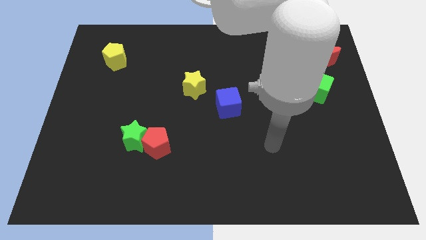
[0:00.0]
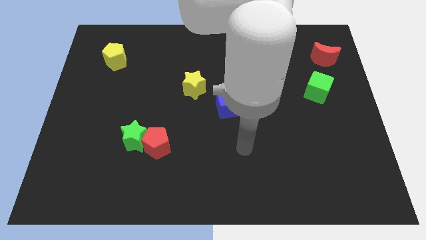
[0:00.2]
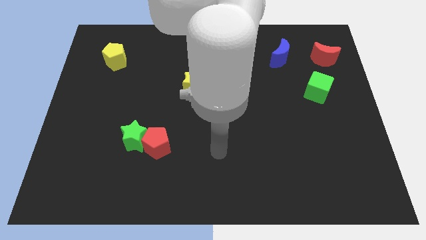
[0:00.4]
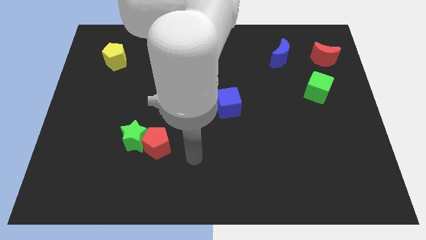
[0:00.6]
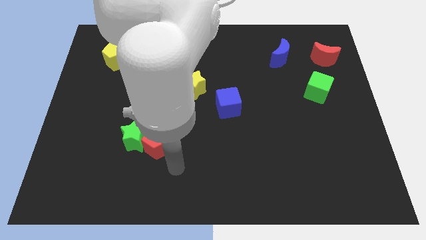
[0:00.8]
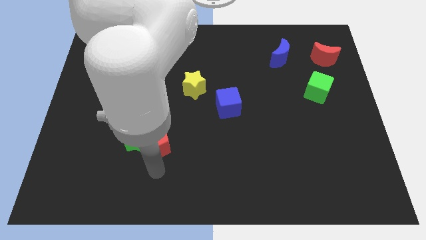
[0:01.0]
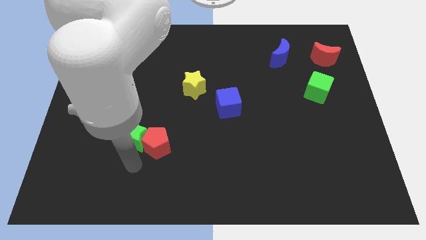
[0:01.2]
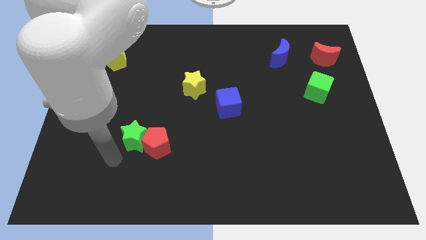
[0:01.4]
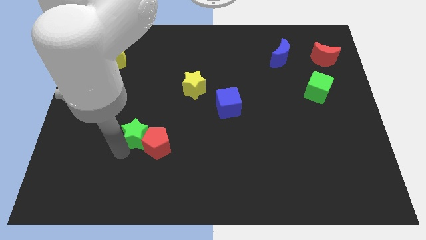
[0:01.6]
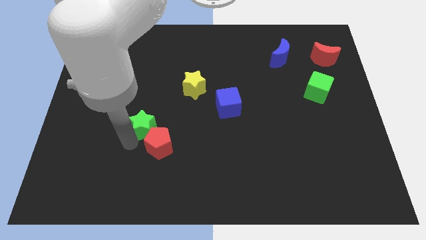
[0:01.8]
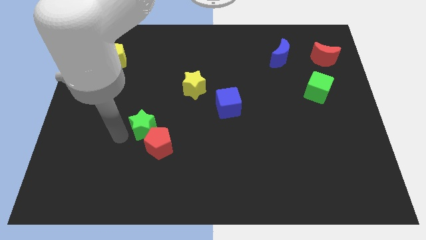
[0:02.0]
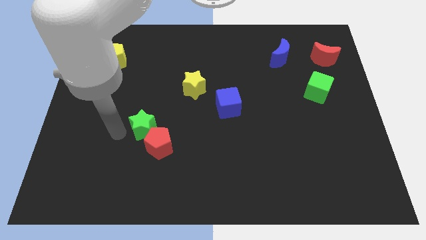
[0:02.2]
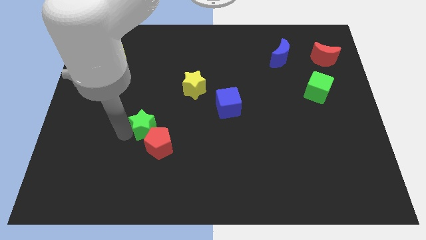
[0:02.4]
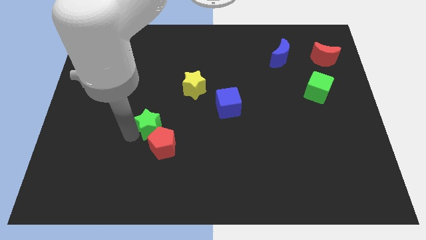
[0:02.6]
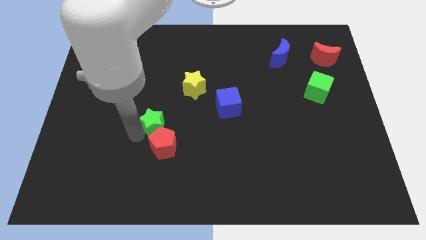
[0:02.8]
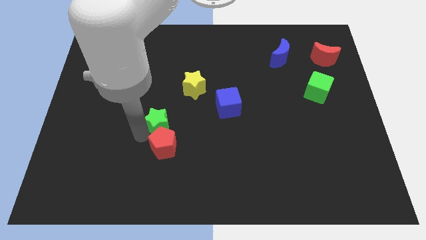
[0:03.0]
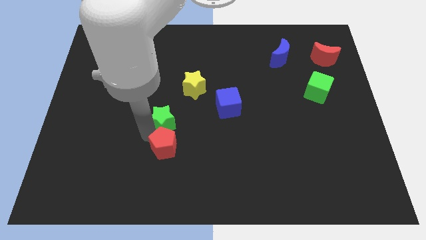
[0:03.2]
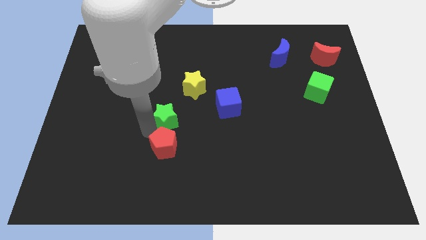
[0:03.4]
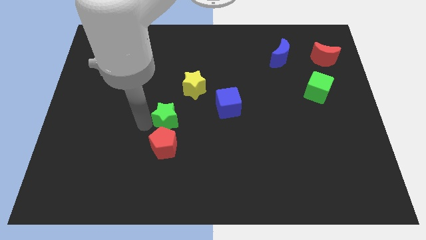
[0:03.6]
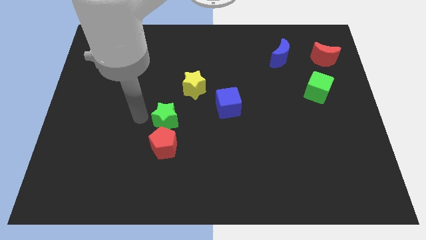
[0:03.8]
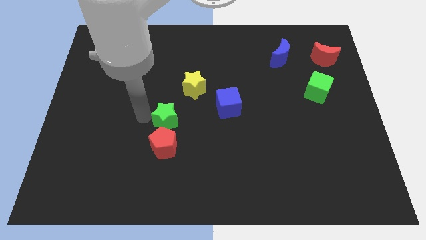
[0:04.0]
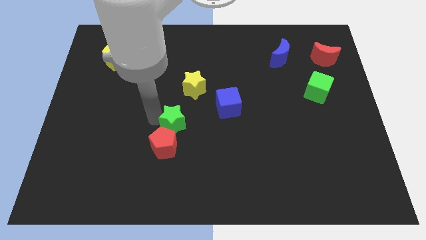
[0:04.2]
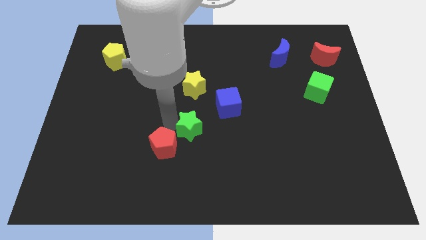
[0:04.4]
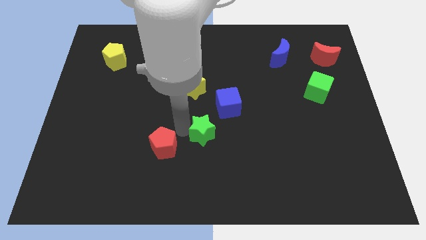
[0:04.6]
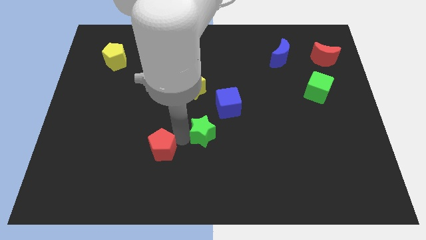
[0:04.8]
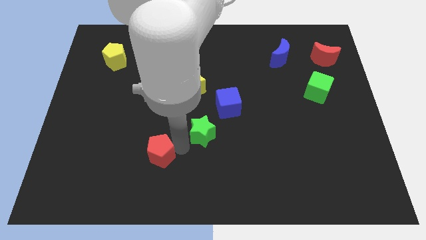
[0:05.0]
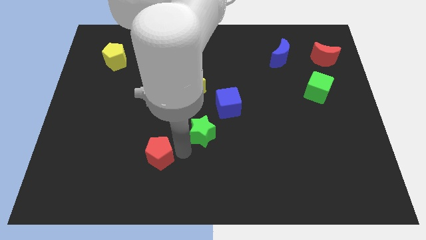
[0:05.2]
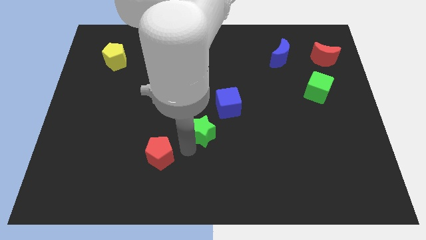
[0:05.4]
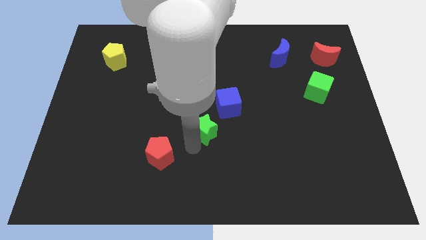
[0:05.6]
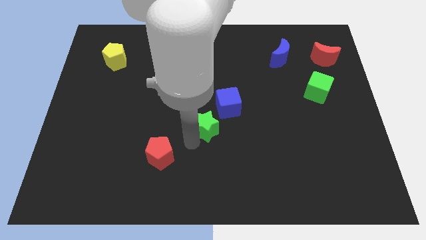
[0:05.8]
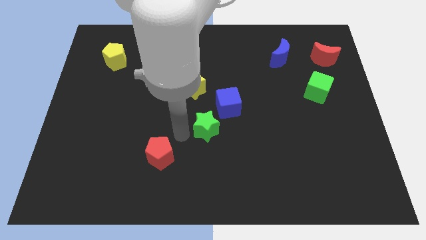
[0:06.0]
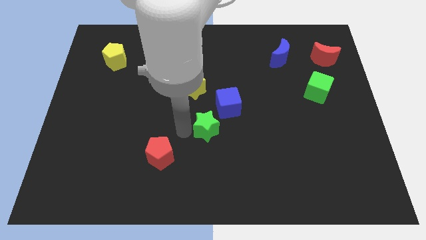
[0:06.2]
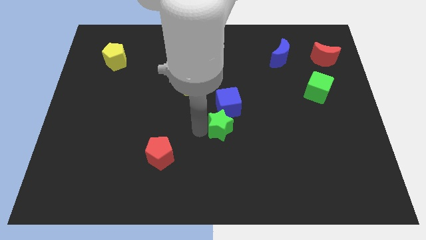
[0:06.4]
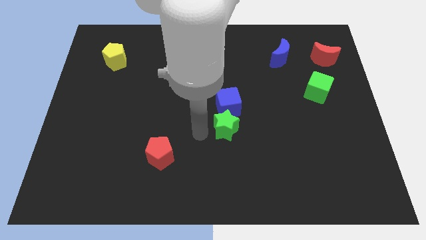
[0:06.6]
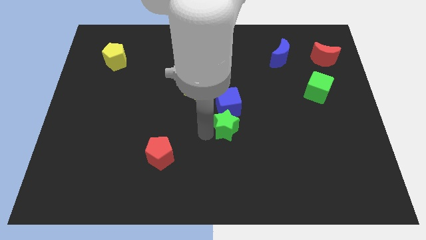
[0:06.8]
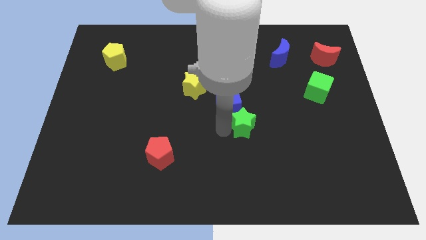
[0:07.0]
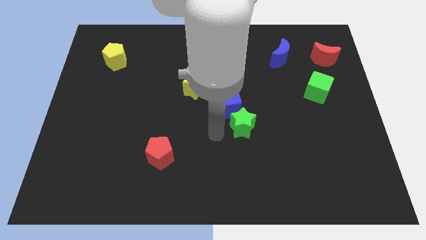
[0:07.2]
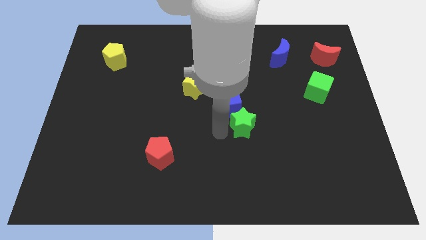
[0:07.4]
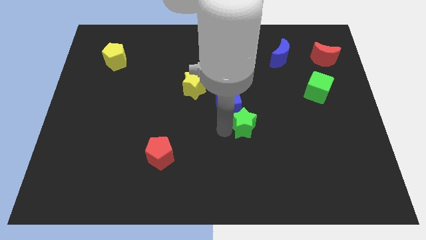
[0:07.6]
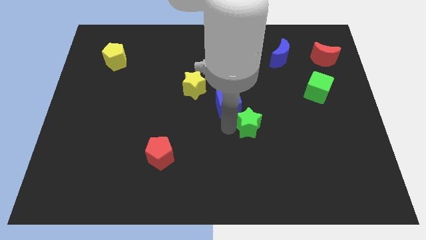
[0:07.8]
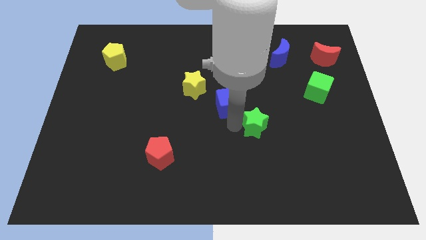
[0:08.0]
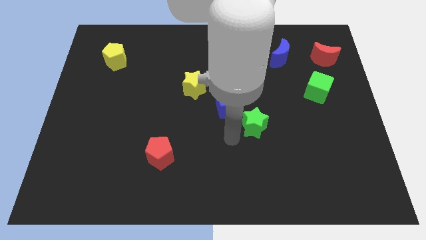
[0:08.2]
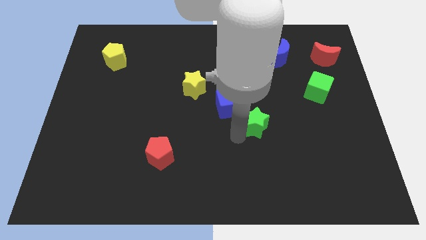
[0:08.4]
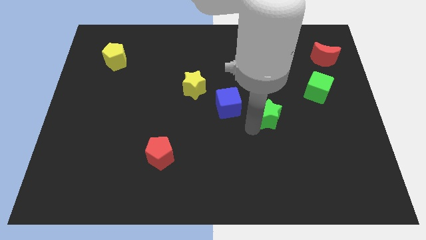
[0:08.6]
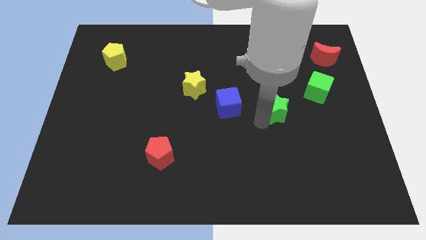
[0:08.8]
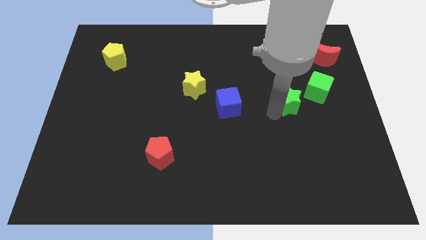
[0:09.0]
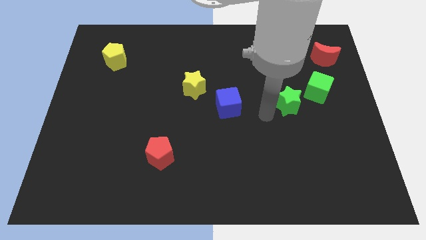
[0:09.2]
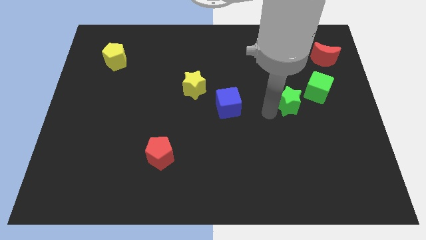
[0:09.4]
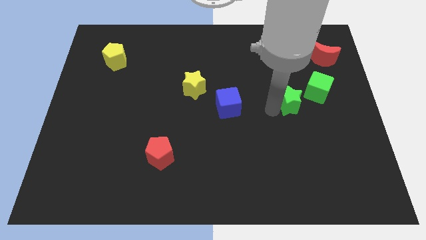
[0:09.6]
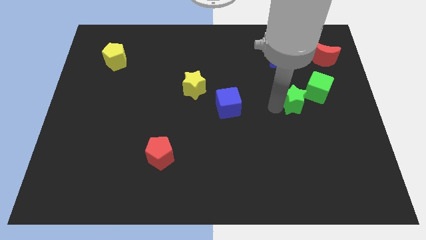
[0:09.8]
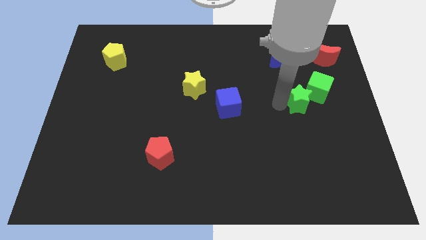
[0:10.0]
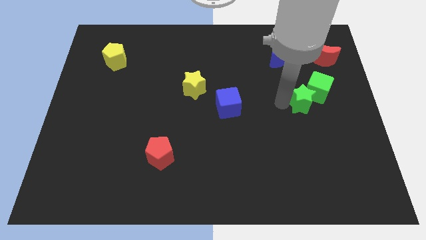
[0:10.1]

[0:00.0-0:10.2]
move the green star close to the green cube

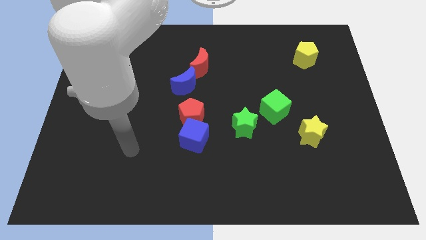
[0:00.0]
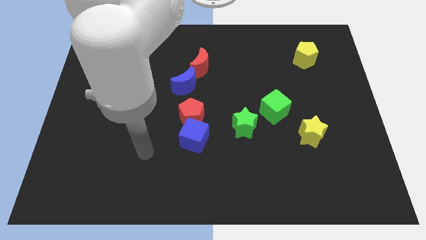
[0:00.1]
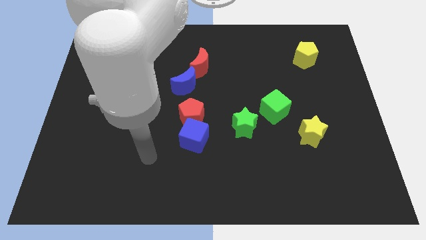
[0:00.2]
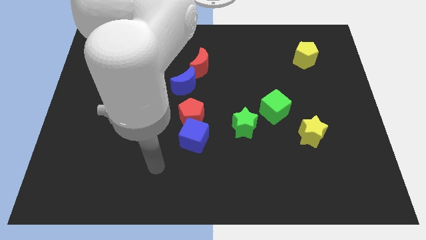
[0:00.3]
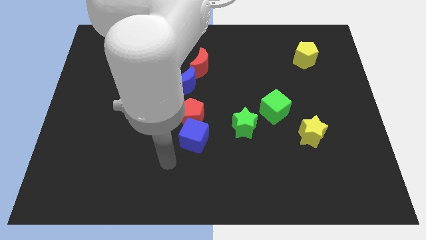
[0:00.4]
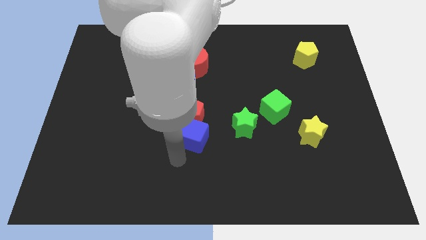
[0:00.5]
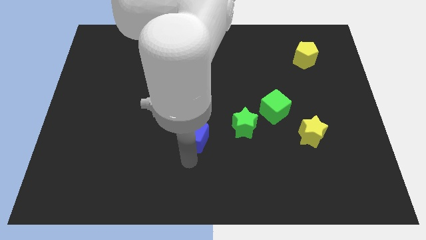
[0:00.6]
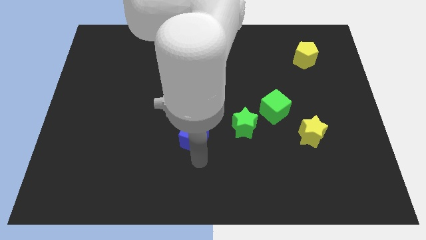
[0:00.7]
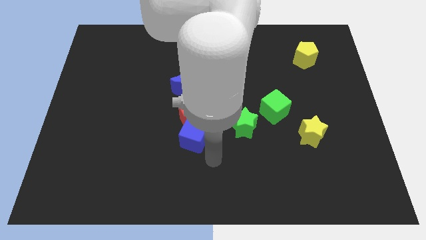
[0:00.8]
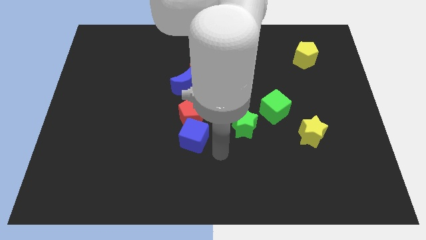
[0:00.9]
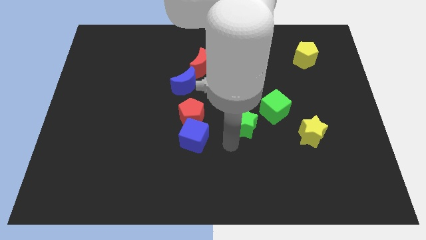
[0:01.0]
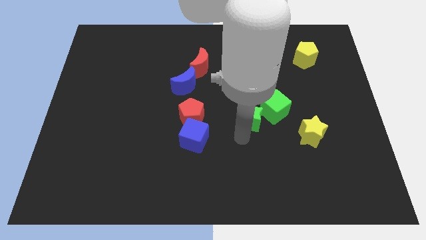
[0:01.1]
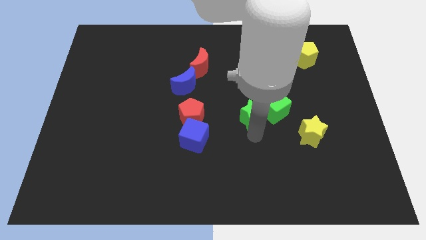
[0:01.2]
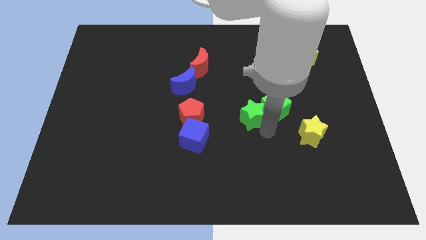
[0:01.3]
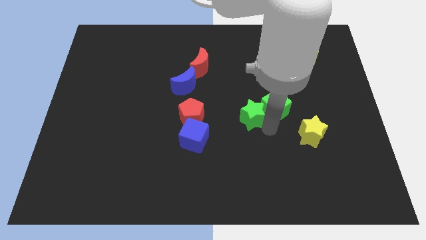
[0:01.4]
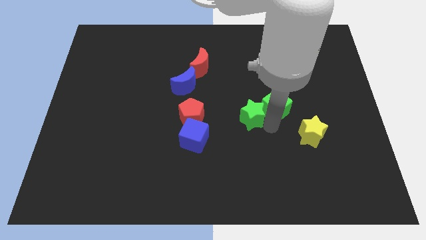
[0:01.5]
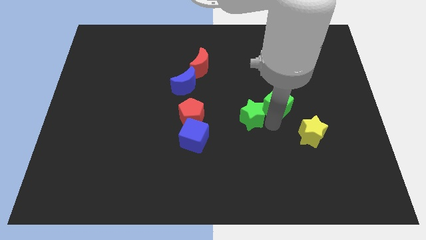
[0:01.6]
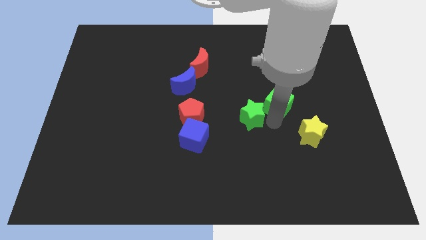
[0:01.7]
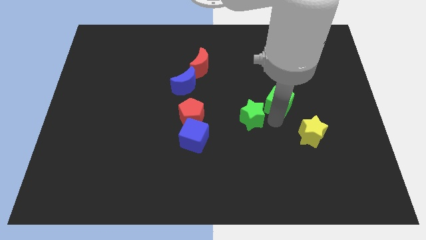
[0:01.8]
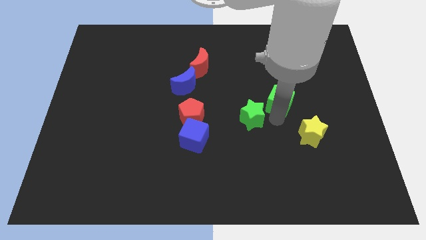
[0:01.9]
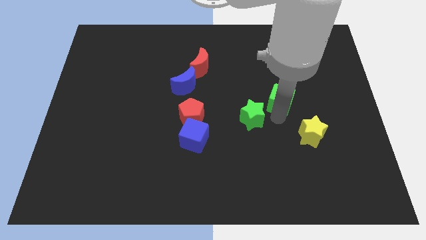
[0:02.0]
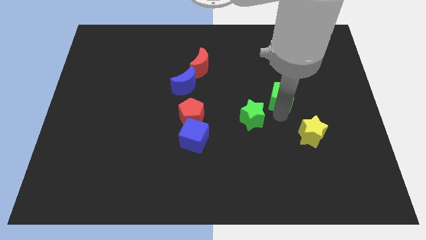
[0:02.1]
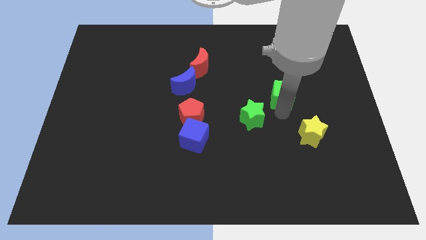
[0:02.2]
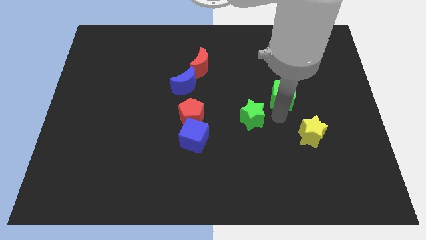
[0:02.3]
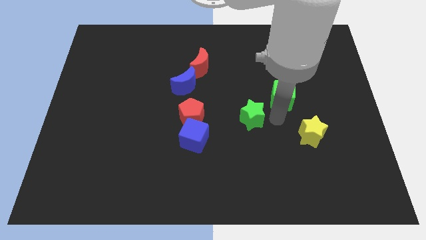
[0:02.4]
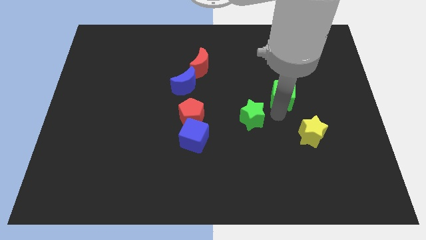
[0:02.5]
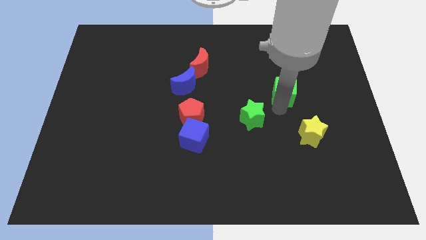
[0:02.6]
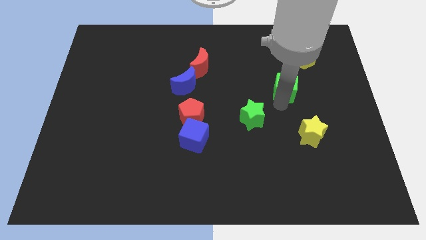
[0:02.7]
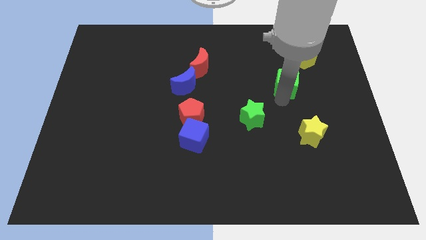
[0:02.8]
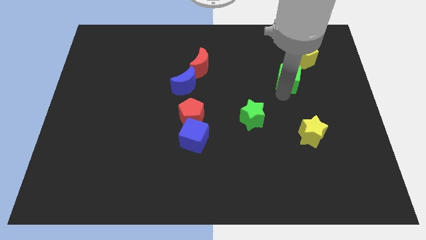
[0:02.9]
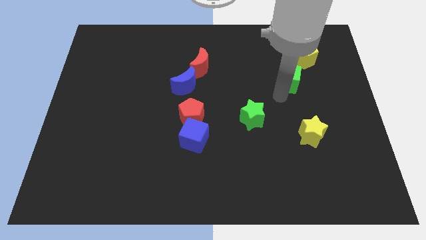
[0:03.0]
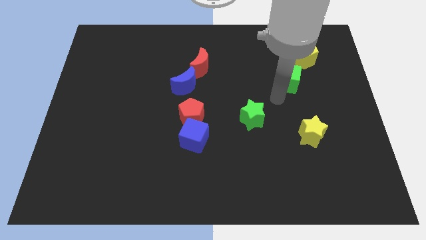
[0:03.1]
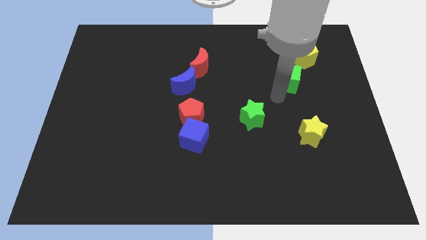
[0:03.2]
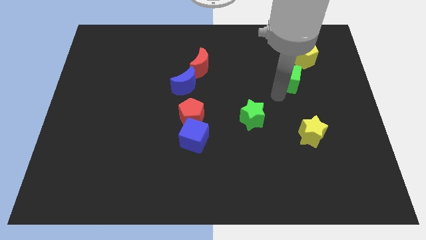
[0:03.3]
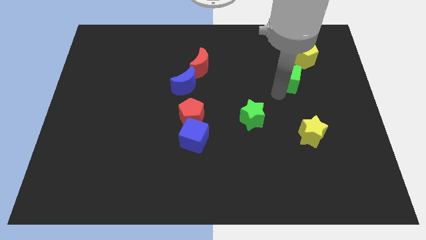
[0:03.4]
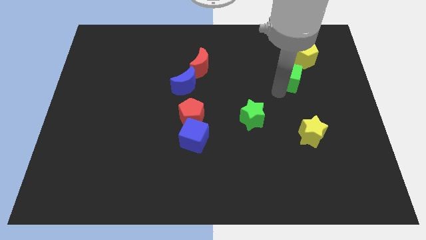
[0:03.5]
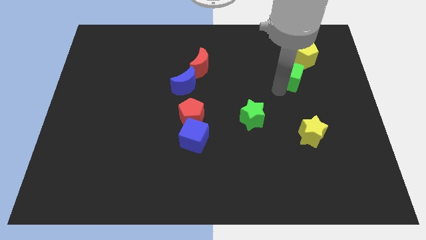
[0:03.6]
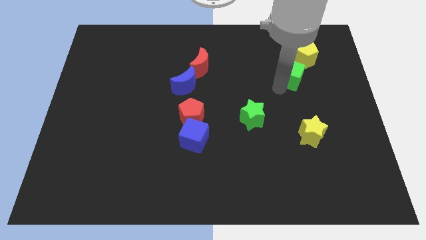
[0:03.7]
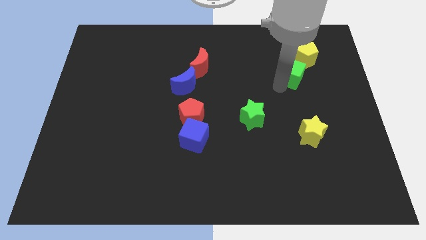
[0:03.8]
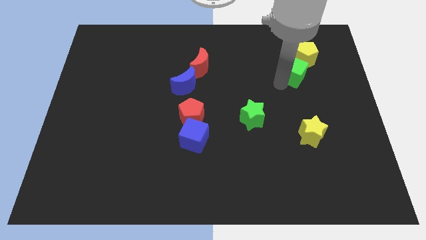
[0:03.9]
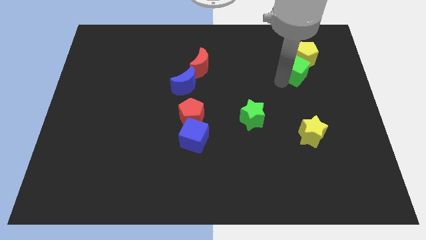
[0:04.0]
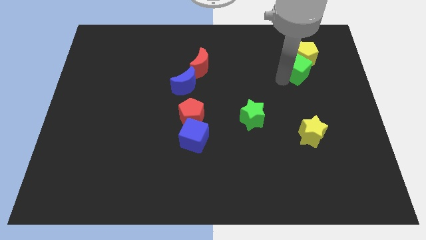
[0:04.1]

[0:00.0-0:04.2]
move the green cube next to the yellow pentagon
